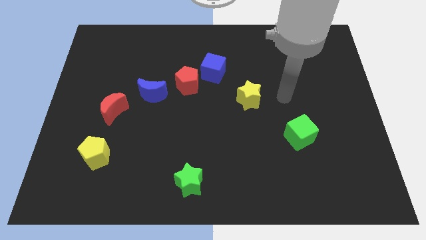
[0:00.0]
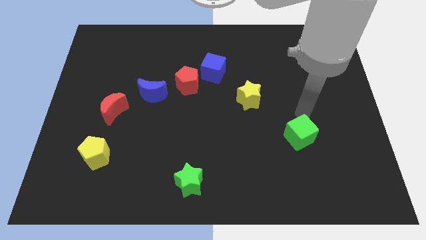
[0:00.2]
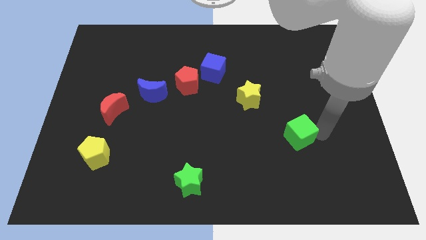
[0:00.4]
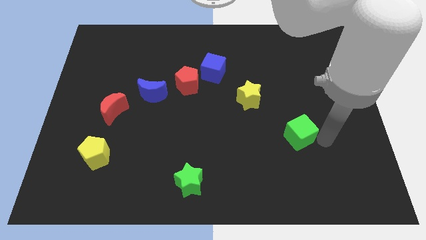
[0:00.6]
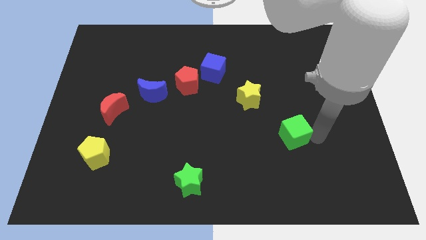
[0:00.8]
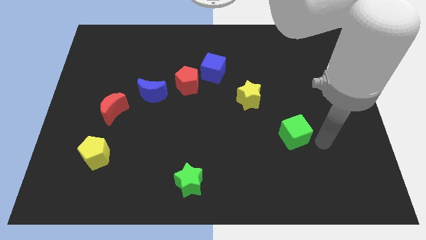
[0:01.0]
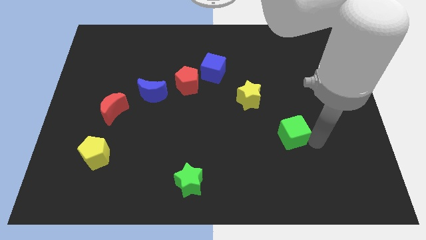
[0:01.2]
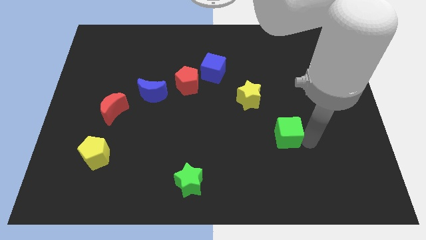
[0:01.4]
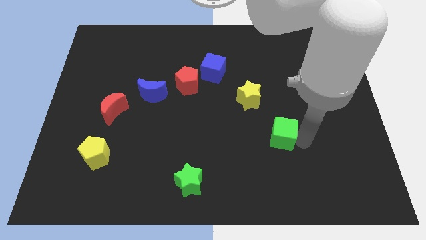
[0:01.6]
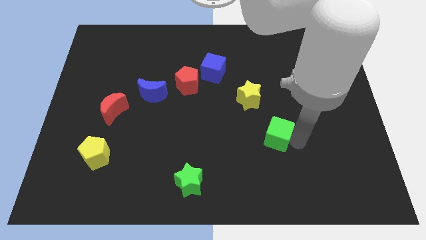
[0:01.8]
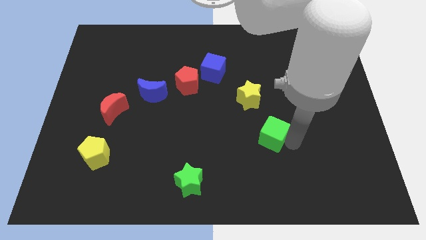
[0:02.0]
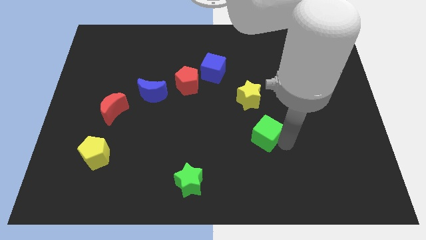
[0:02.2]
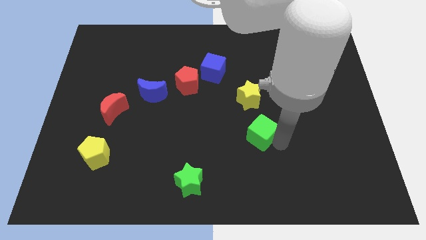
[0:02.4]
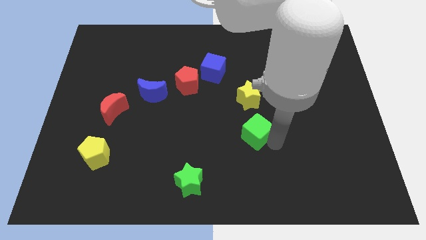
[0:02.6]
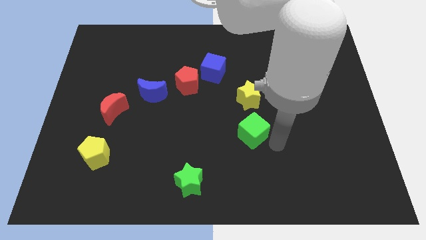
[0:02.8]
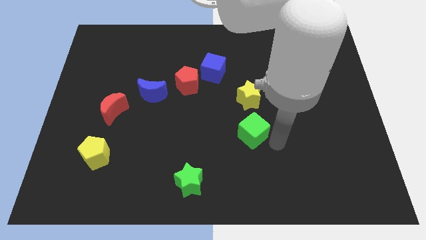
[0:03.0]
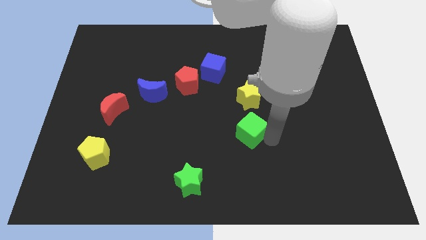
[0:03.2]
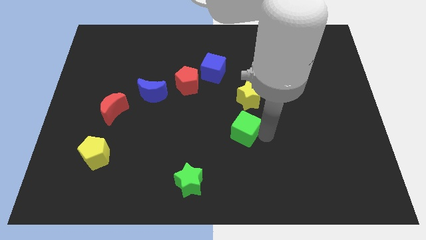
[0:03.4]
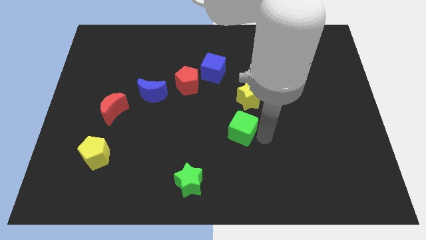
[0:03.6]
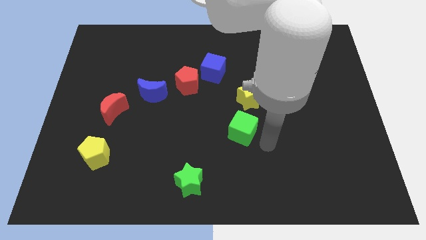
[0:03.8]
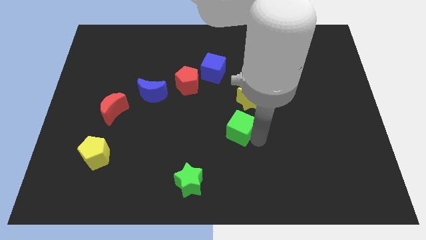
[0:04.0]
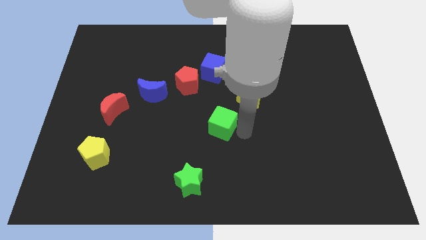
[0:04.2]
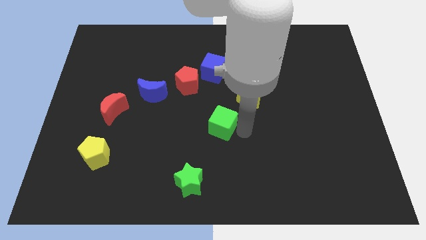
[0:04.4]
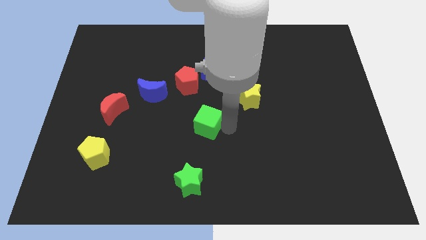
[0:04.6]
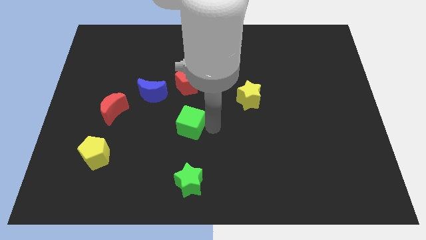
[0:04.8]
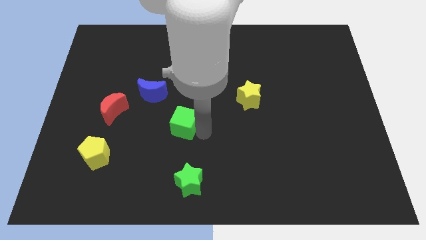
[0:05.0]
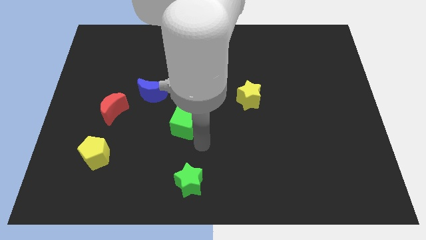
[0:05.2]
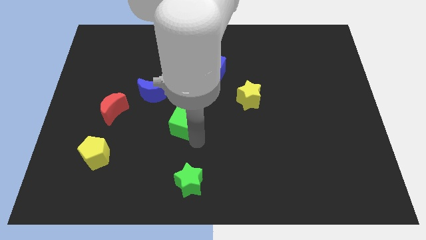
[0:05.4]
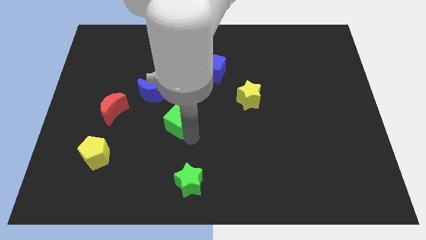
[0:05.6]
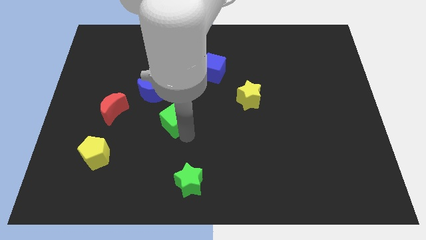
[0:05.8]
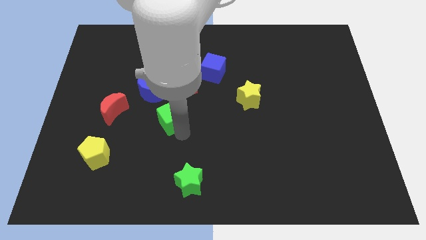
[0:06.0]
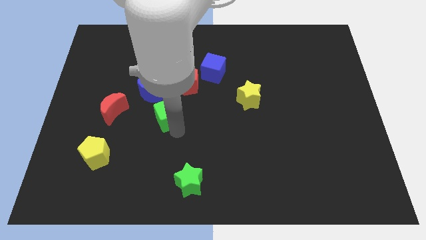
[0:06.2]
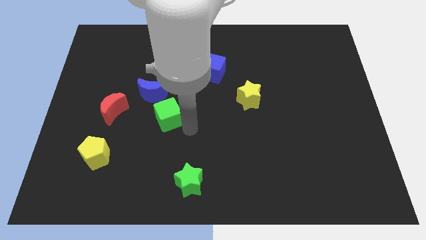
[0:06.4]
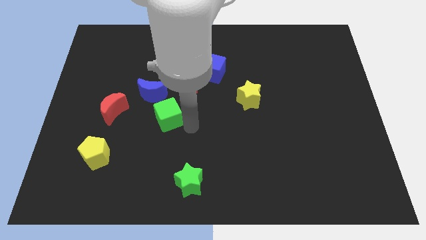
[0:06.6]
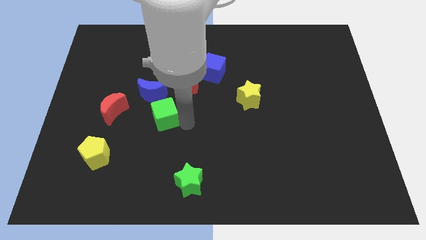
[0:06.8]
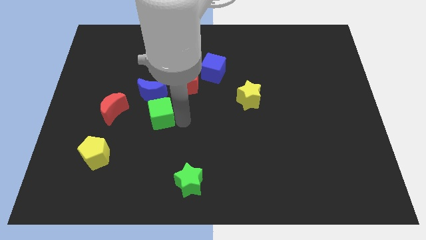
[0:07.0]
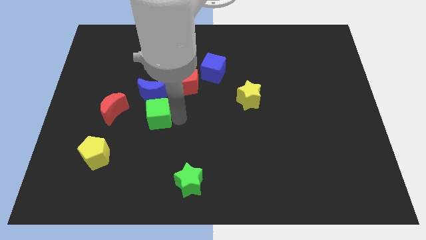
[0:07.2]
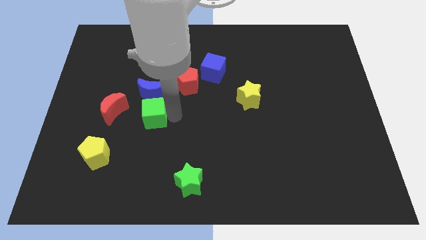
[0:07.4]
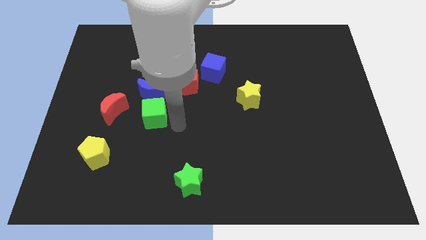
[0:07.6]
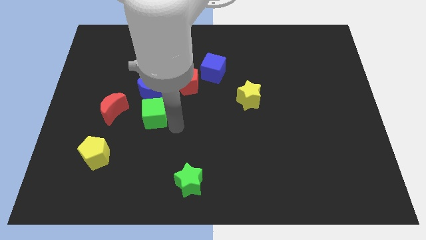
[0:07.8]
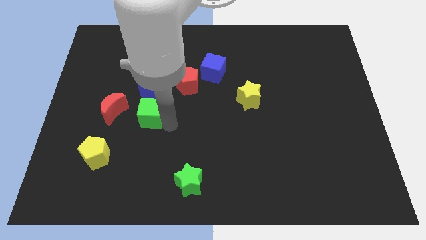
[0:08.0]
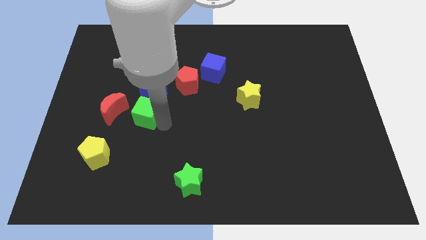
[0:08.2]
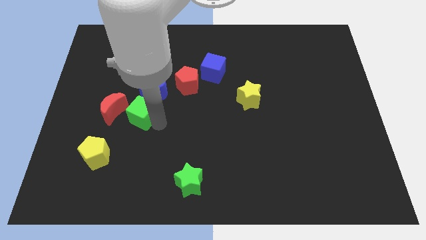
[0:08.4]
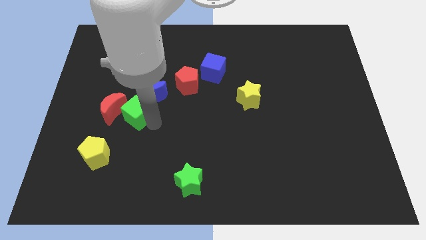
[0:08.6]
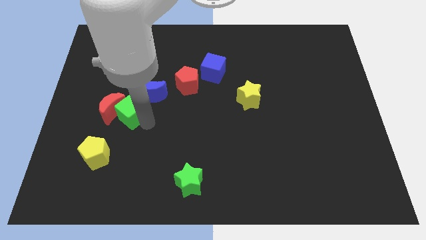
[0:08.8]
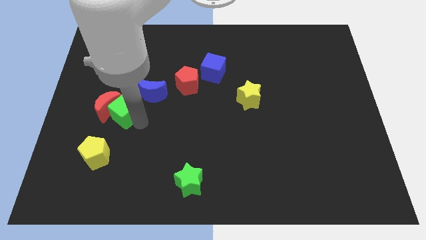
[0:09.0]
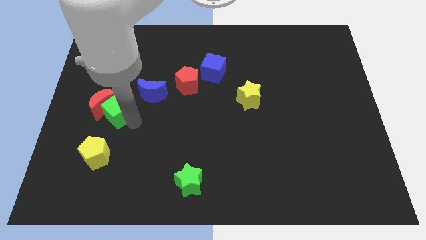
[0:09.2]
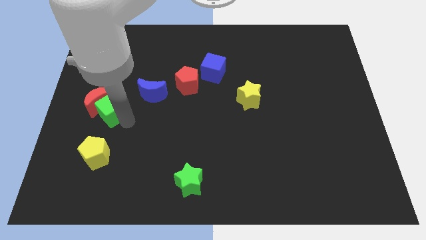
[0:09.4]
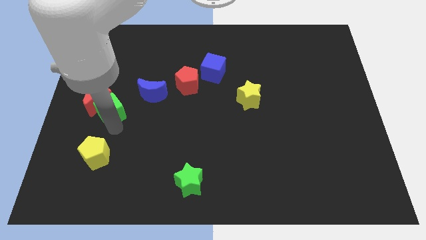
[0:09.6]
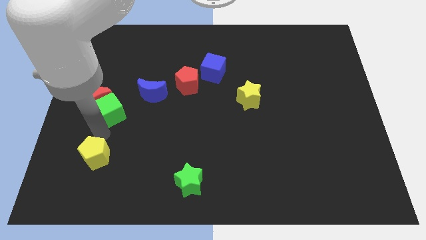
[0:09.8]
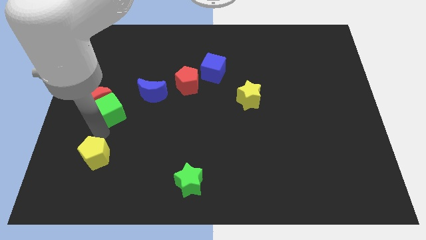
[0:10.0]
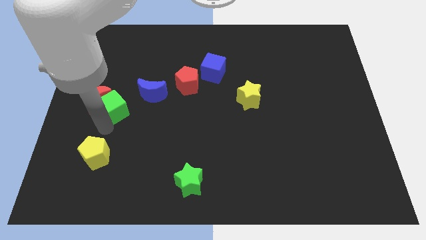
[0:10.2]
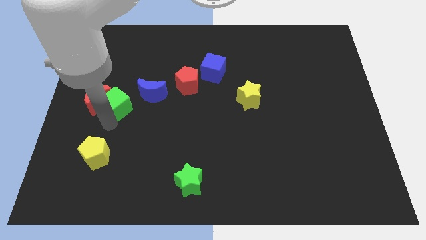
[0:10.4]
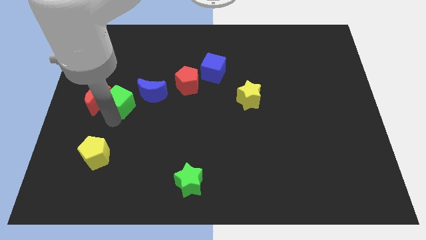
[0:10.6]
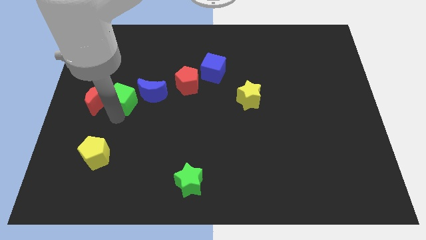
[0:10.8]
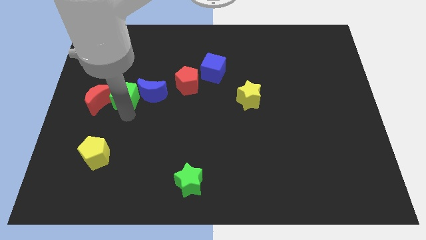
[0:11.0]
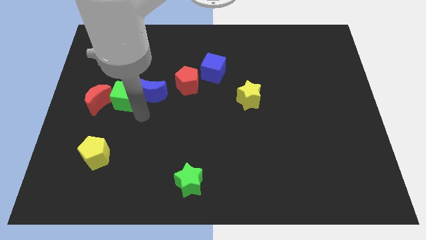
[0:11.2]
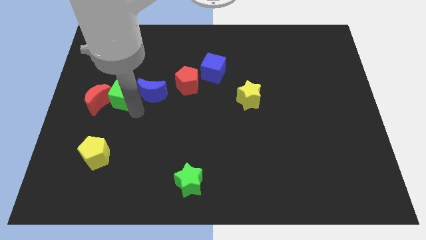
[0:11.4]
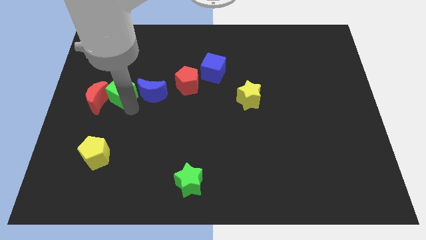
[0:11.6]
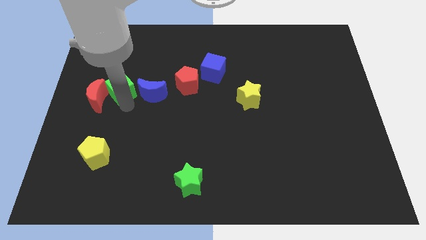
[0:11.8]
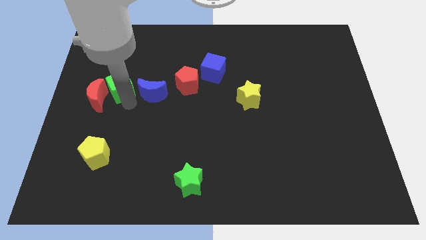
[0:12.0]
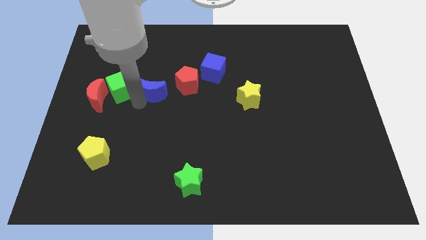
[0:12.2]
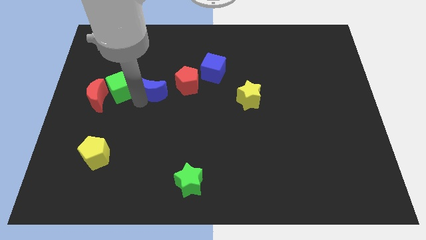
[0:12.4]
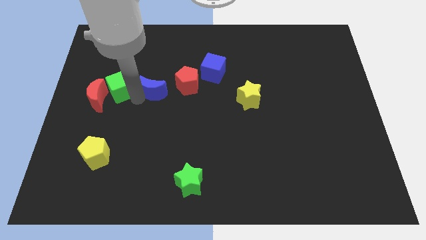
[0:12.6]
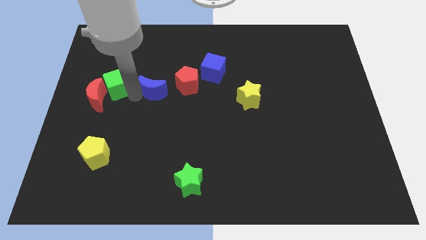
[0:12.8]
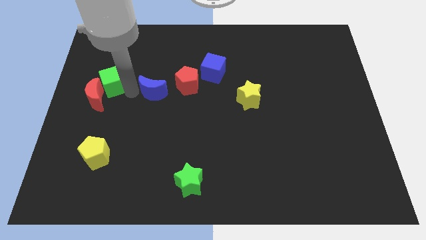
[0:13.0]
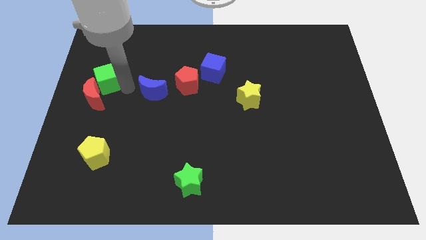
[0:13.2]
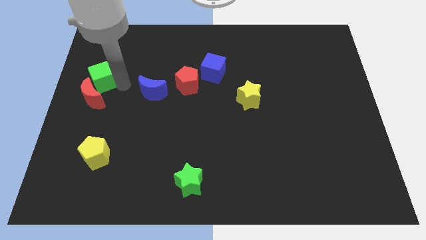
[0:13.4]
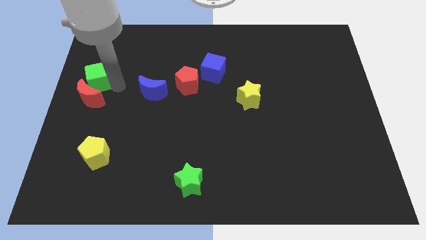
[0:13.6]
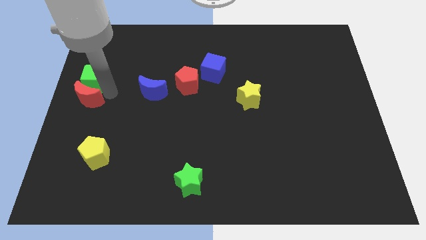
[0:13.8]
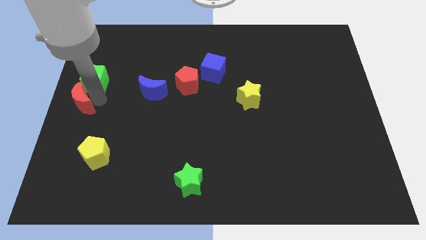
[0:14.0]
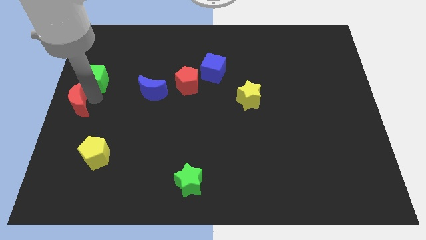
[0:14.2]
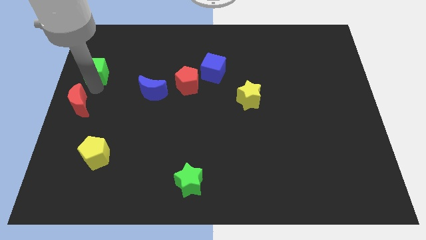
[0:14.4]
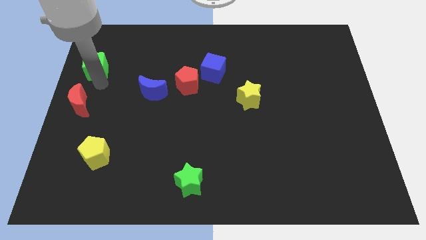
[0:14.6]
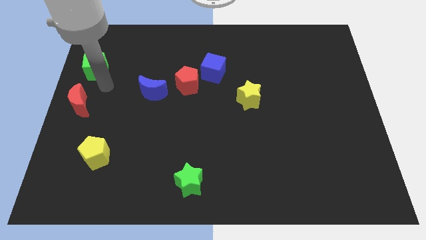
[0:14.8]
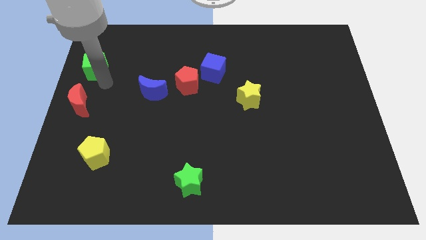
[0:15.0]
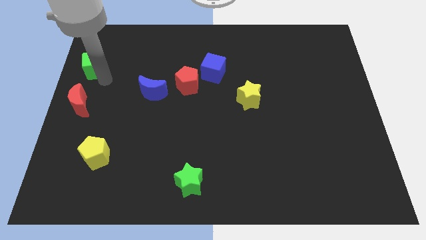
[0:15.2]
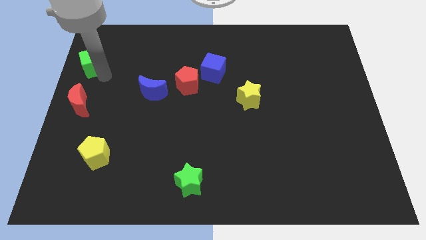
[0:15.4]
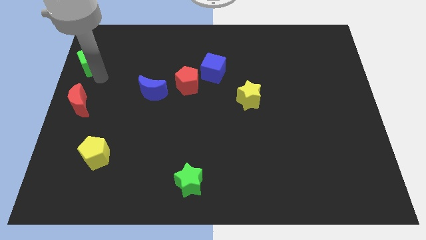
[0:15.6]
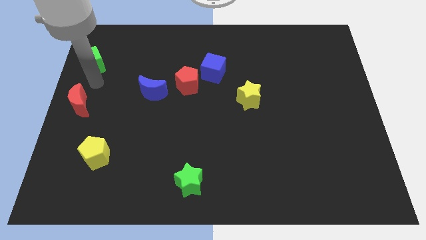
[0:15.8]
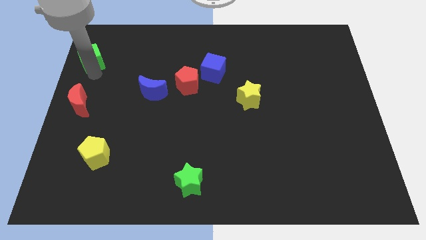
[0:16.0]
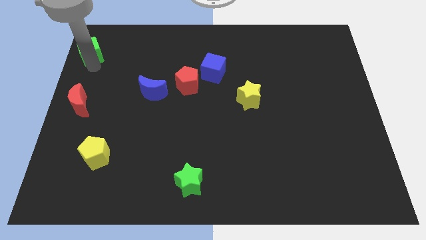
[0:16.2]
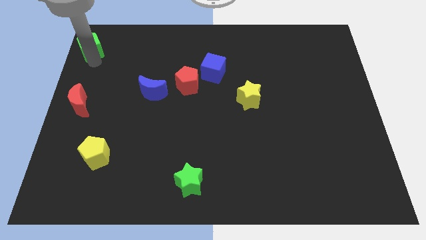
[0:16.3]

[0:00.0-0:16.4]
slide the green cube to the top left
